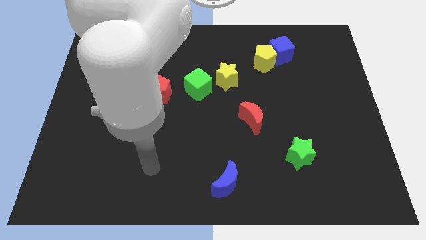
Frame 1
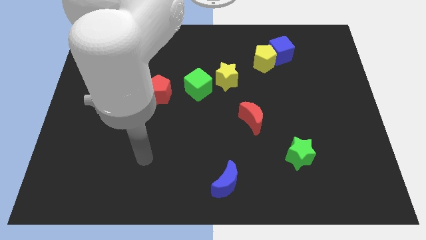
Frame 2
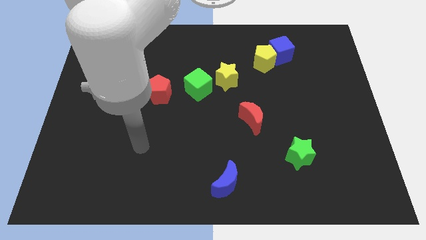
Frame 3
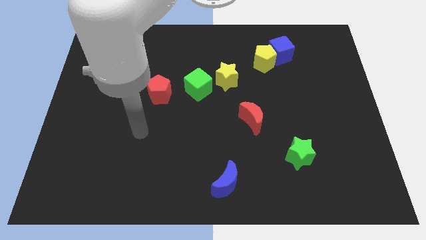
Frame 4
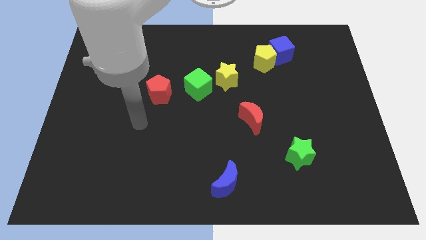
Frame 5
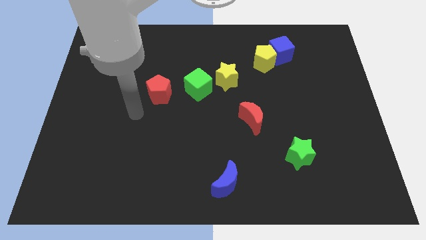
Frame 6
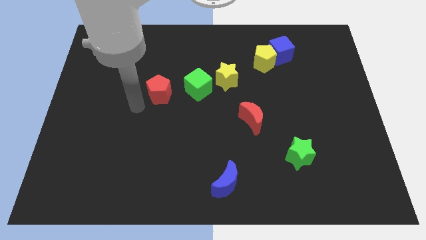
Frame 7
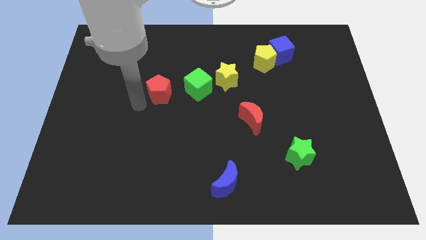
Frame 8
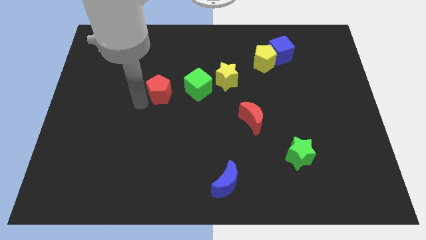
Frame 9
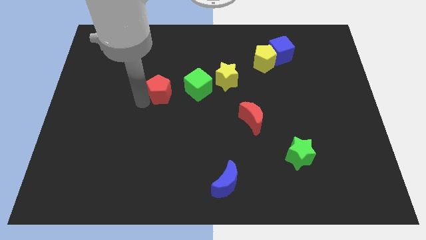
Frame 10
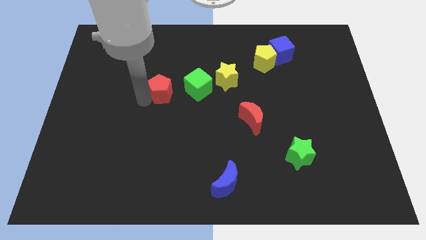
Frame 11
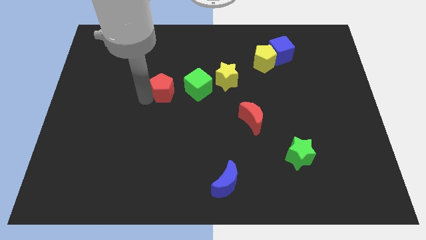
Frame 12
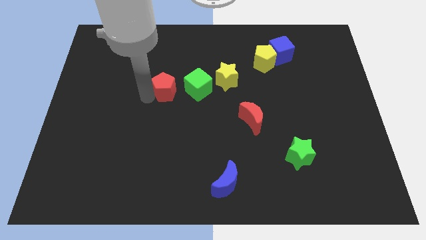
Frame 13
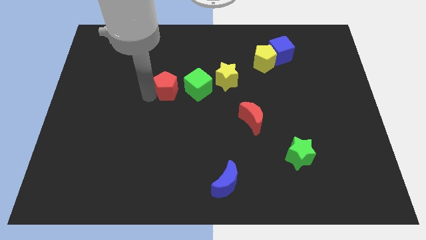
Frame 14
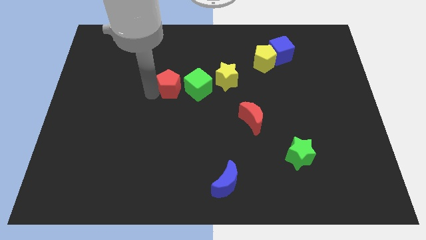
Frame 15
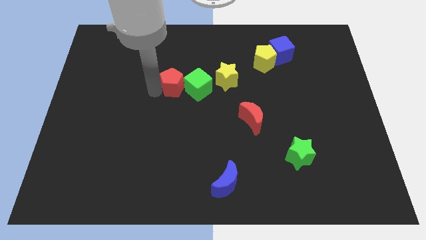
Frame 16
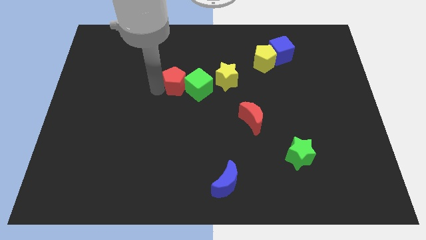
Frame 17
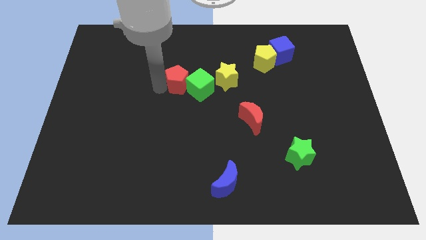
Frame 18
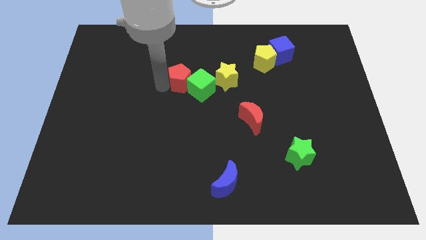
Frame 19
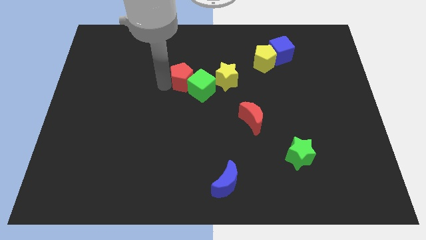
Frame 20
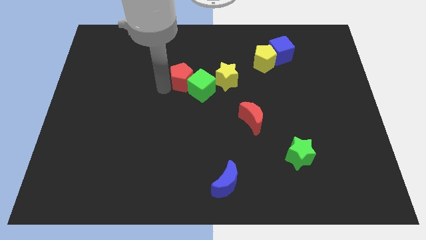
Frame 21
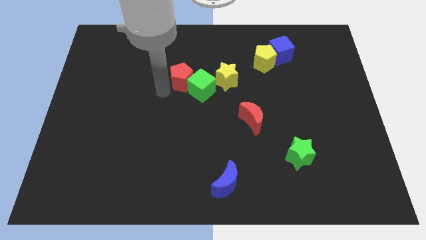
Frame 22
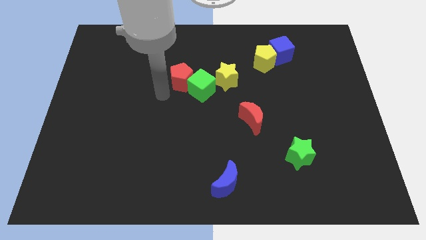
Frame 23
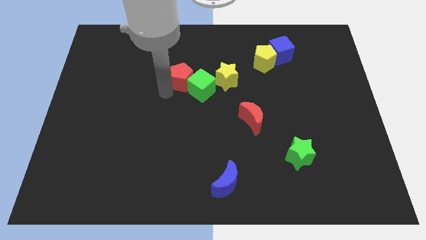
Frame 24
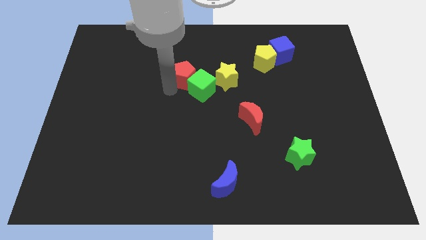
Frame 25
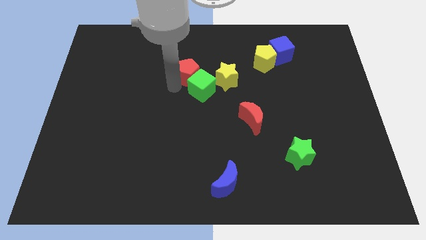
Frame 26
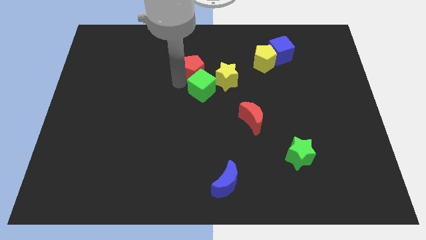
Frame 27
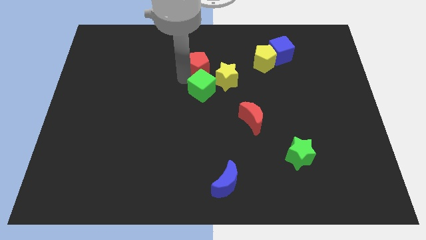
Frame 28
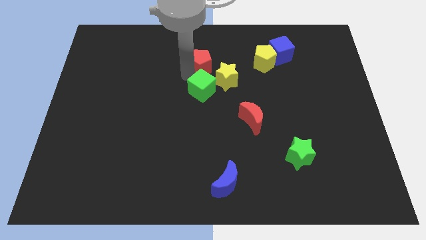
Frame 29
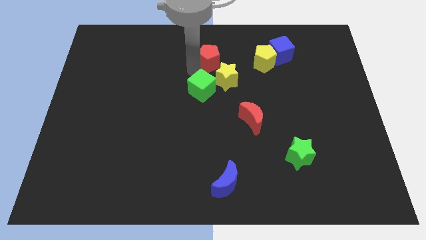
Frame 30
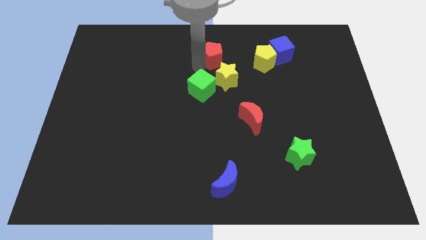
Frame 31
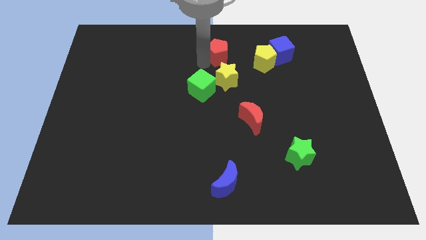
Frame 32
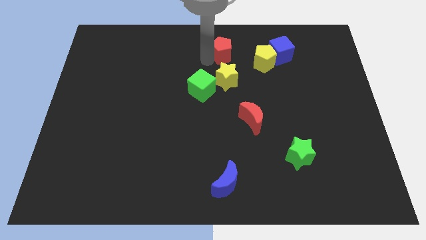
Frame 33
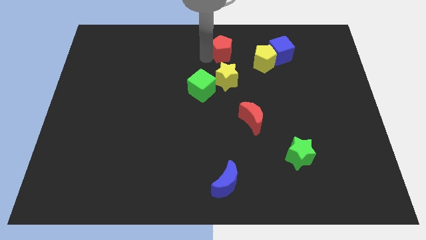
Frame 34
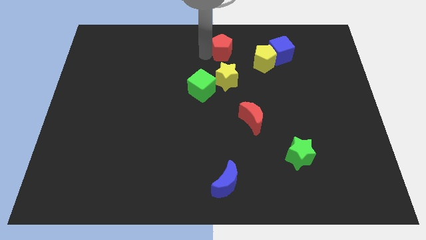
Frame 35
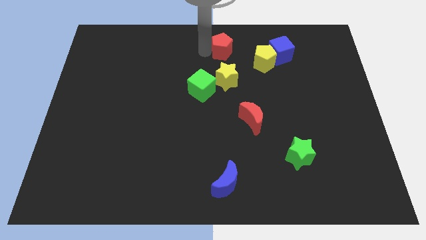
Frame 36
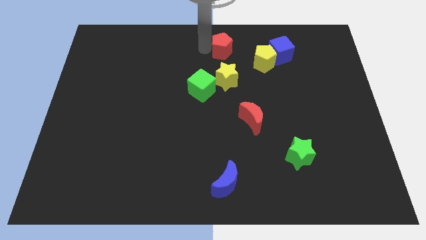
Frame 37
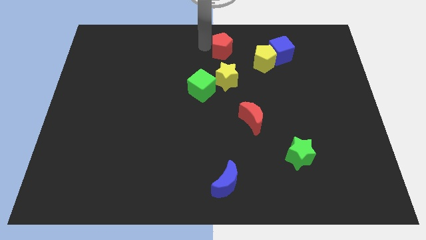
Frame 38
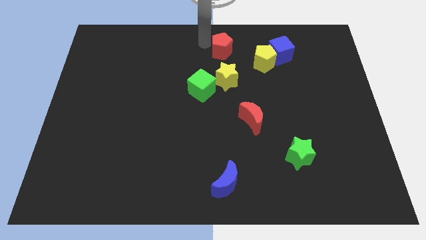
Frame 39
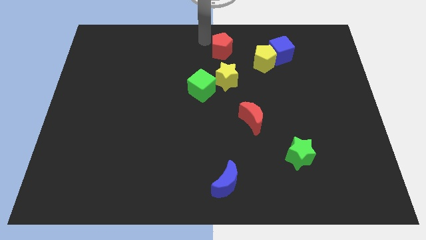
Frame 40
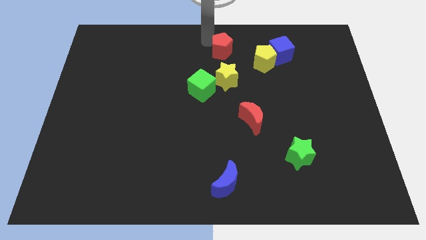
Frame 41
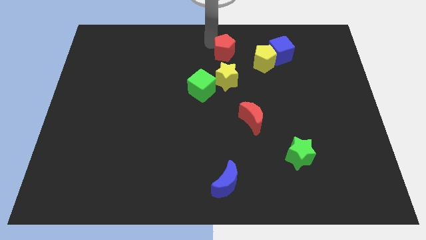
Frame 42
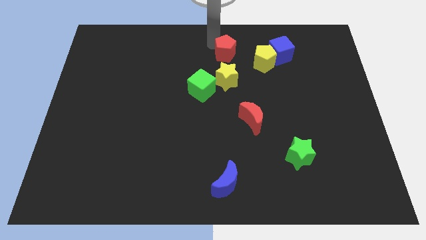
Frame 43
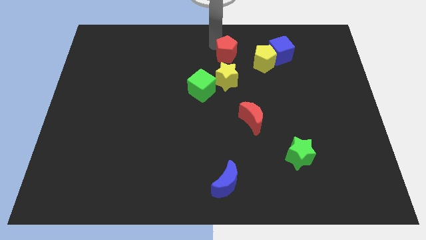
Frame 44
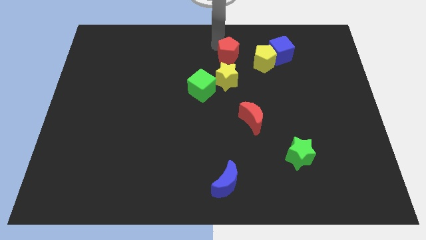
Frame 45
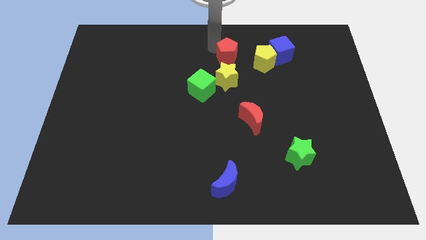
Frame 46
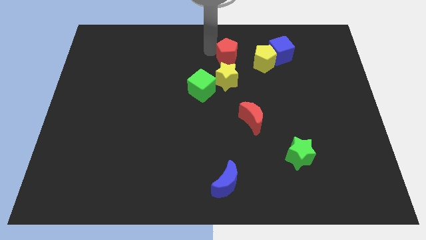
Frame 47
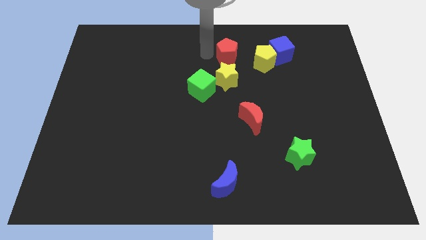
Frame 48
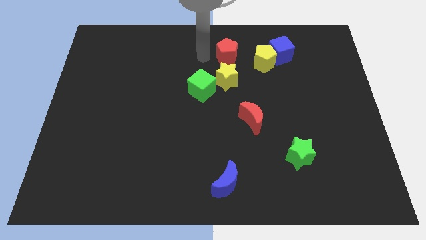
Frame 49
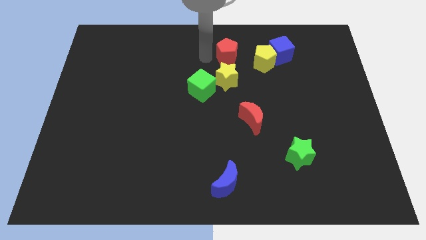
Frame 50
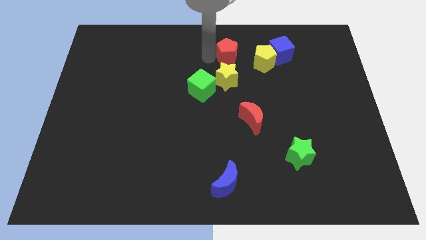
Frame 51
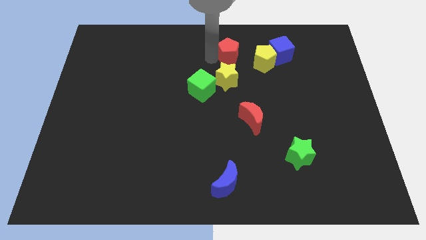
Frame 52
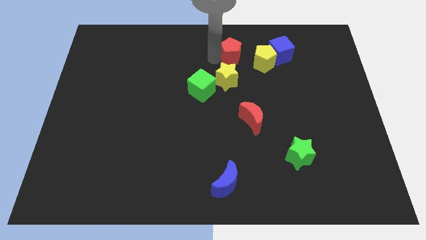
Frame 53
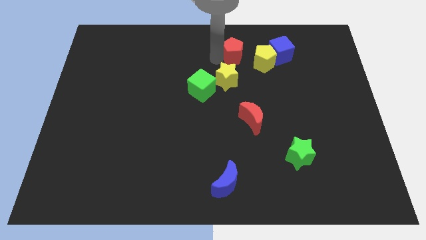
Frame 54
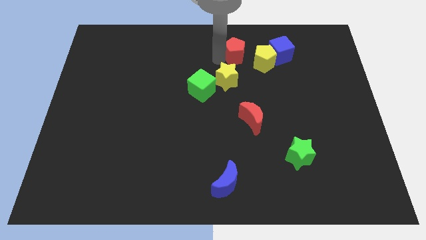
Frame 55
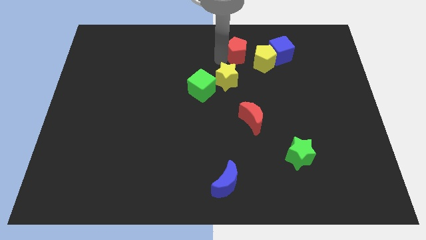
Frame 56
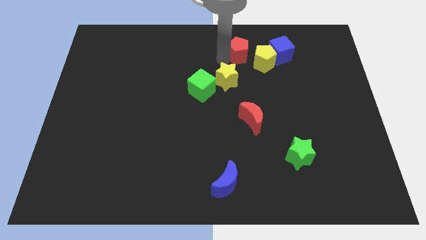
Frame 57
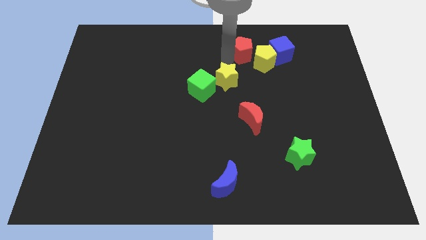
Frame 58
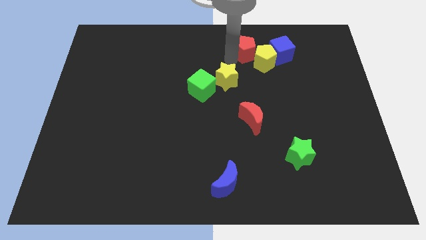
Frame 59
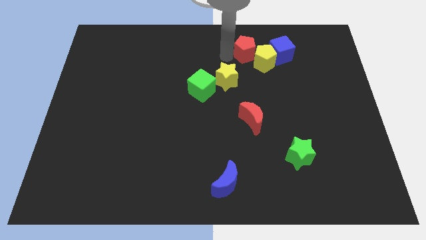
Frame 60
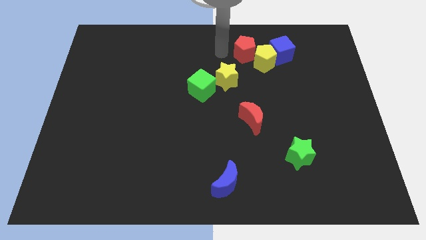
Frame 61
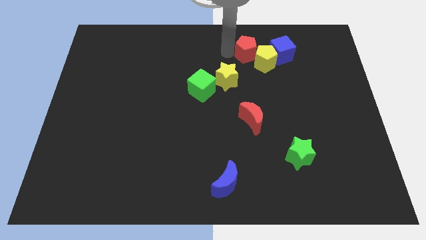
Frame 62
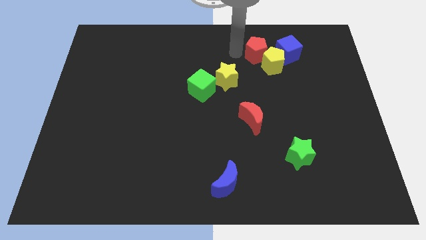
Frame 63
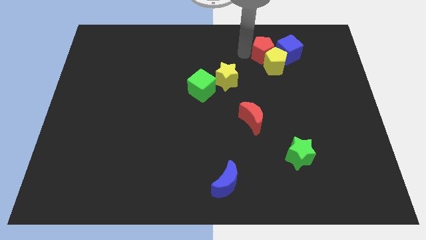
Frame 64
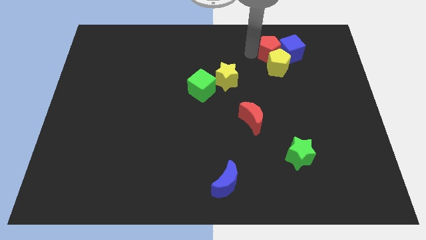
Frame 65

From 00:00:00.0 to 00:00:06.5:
move the red pentagon to the blue cube

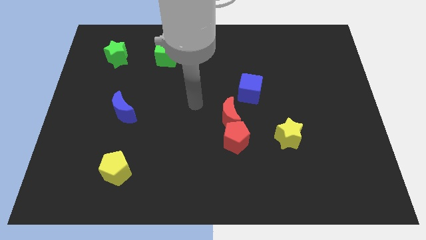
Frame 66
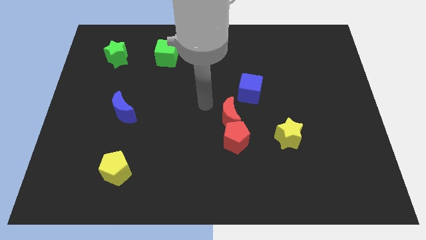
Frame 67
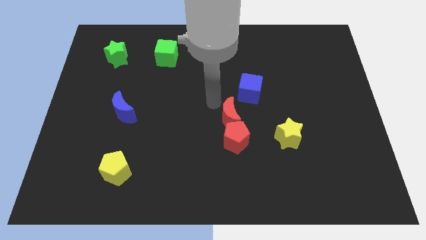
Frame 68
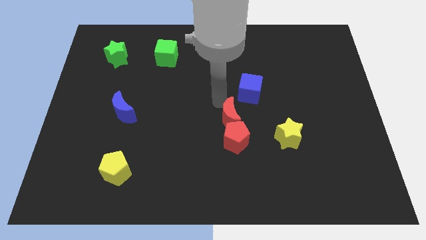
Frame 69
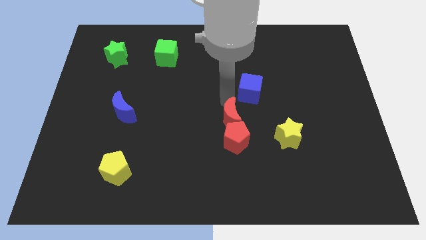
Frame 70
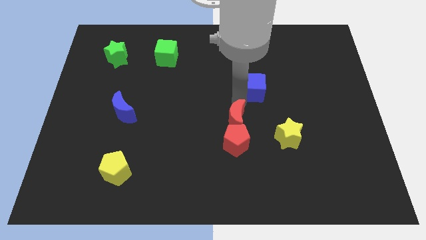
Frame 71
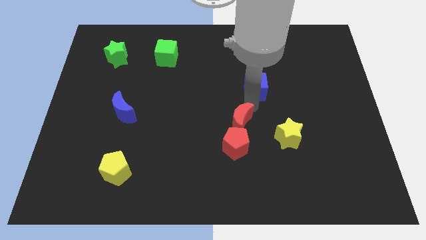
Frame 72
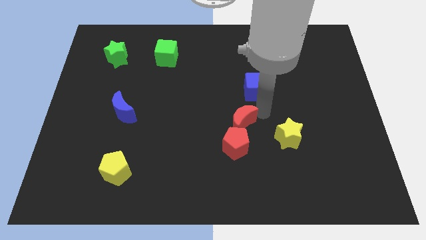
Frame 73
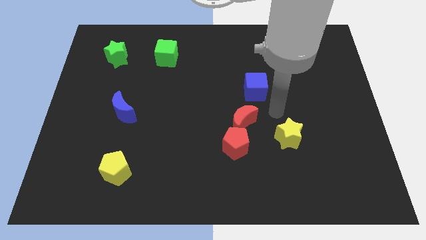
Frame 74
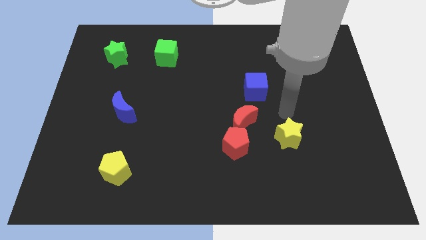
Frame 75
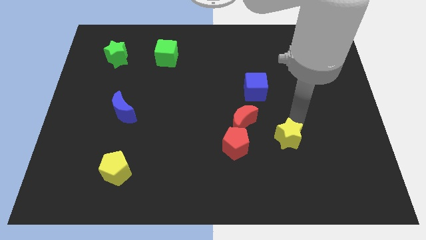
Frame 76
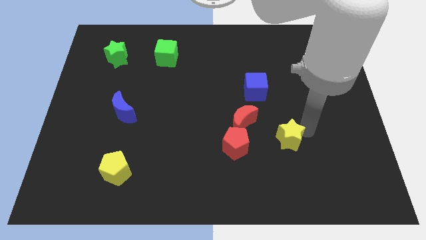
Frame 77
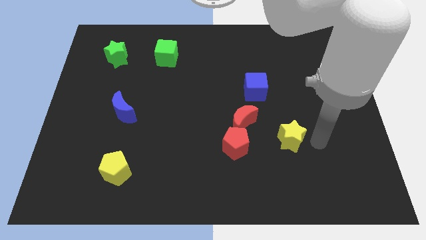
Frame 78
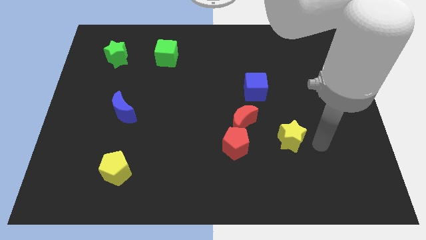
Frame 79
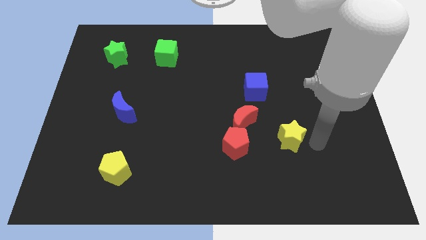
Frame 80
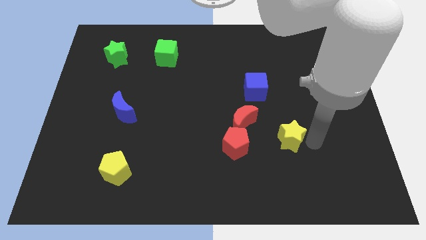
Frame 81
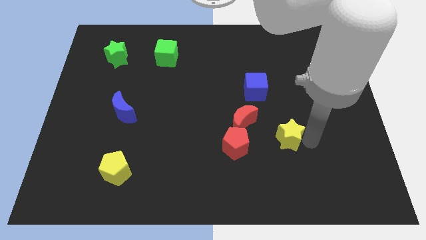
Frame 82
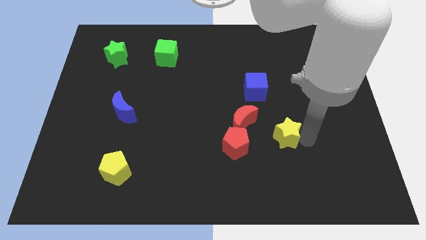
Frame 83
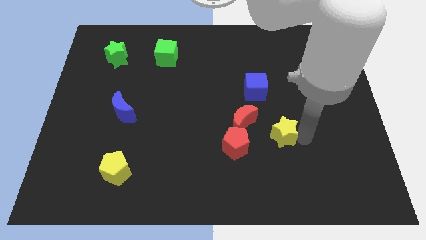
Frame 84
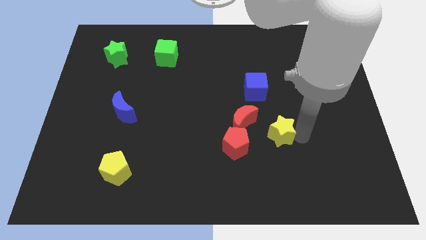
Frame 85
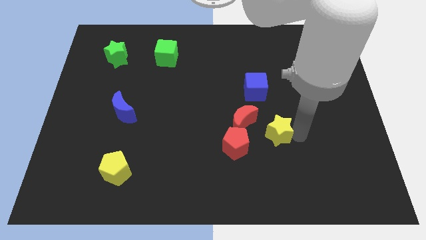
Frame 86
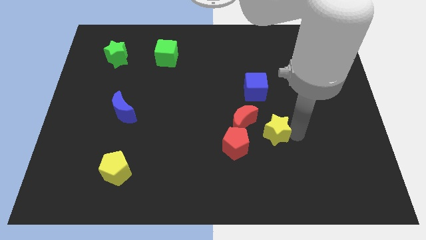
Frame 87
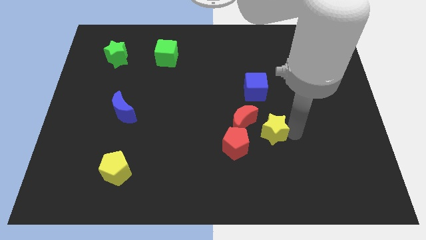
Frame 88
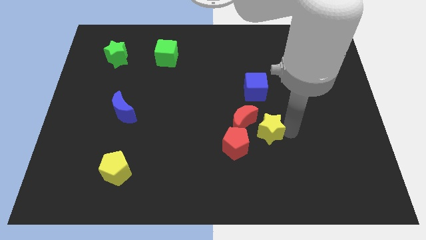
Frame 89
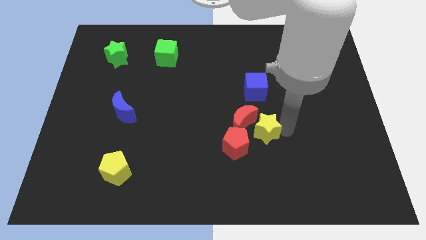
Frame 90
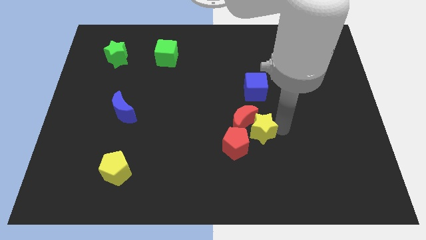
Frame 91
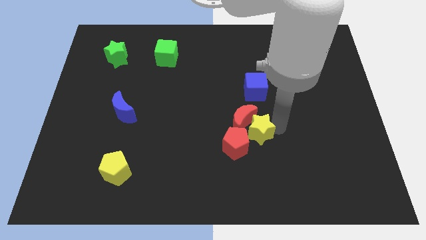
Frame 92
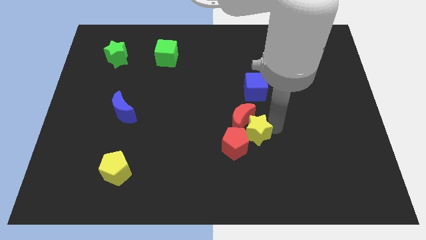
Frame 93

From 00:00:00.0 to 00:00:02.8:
put the yellow star towards the red pentagon
